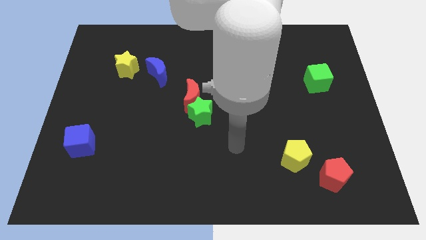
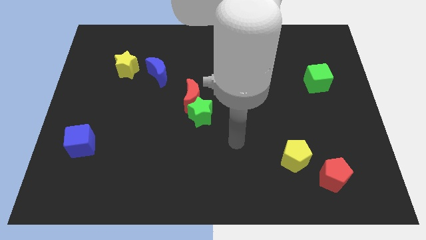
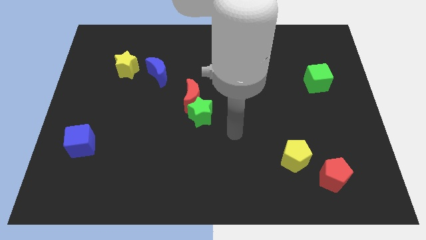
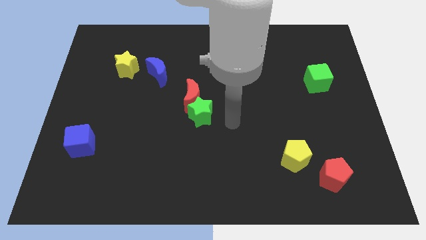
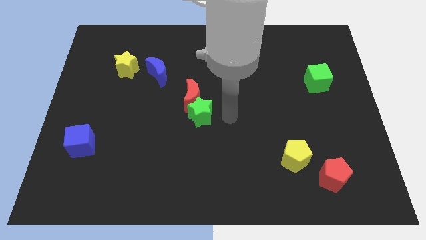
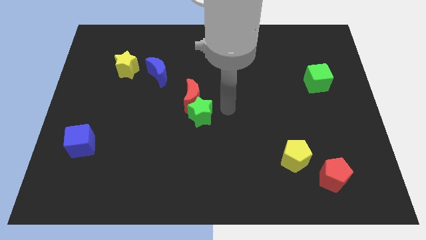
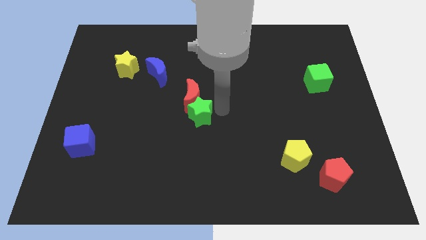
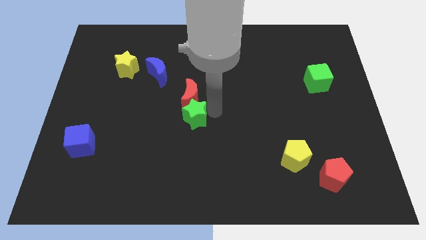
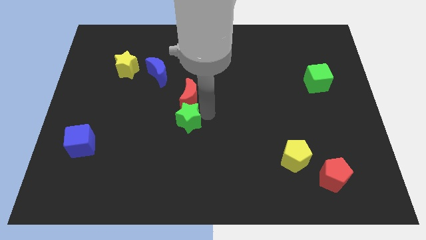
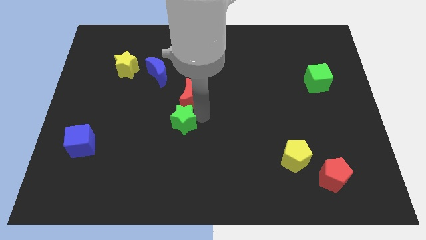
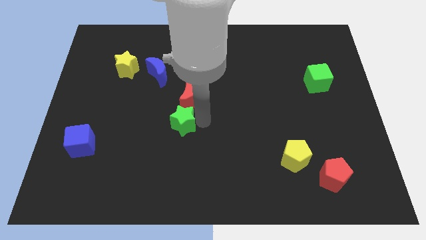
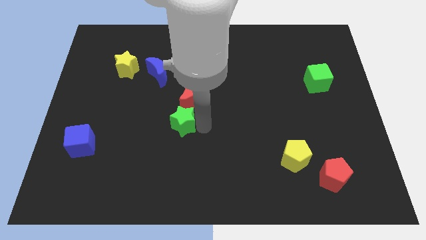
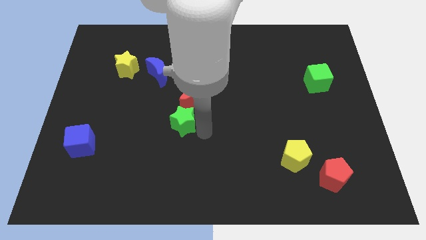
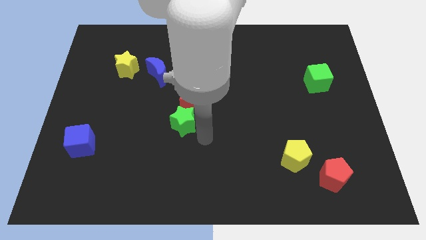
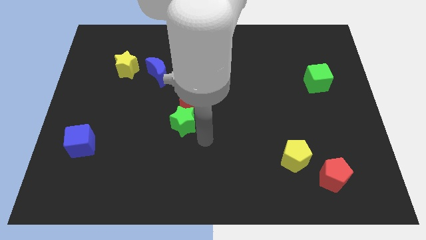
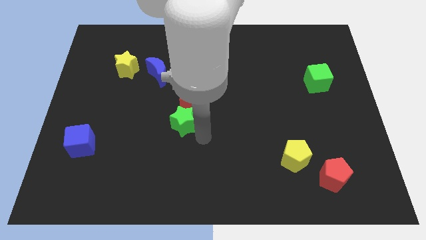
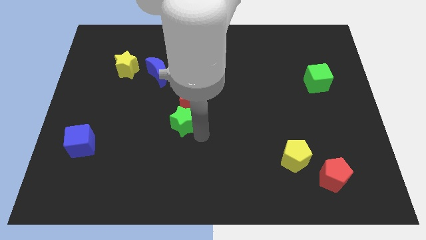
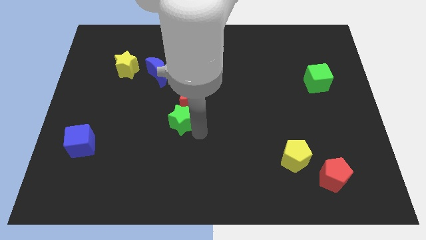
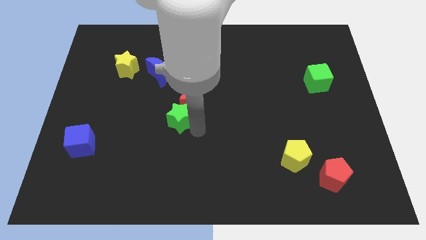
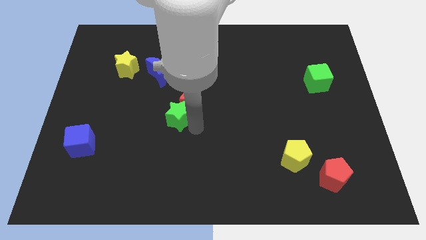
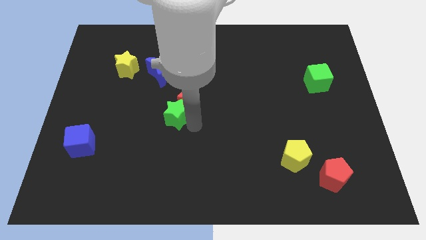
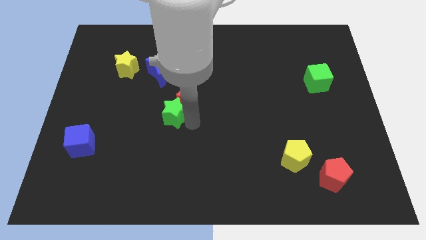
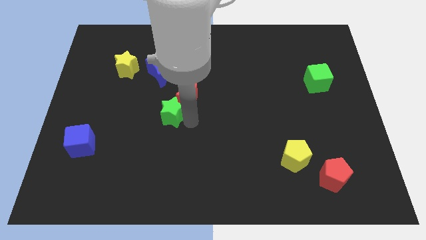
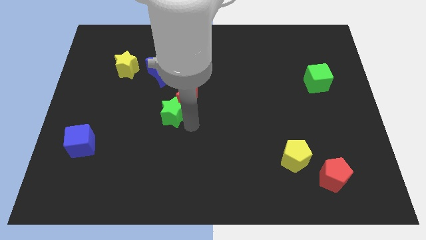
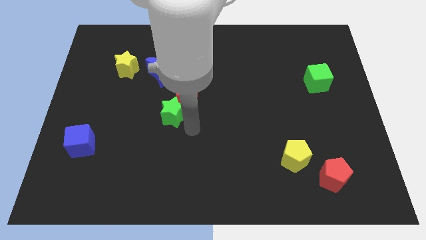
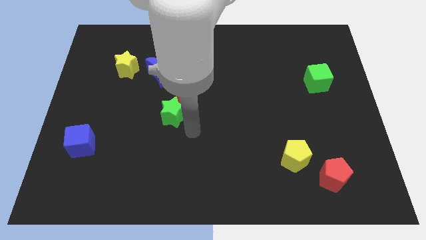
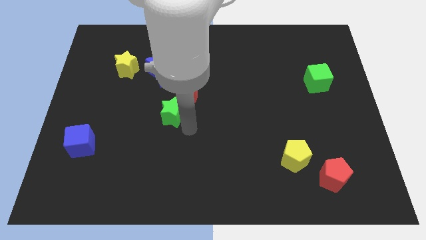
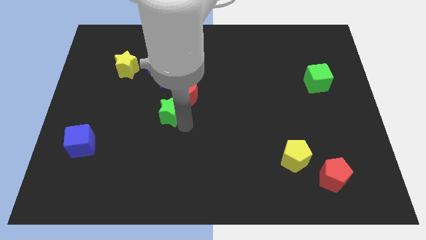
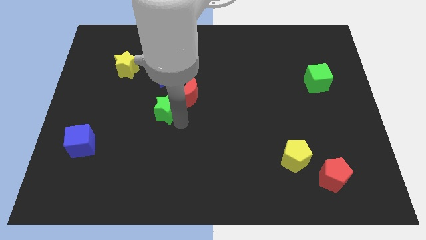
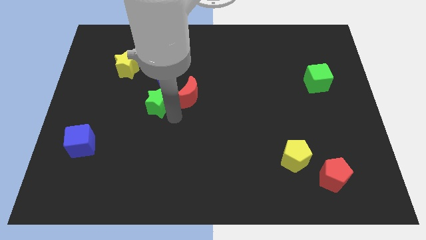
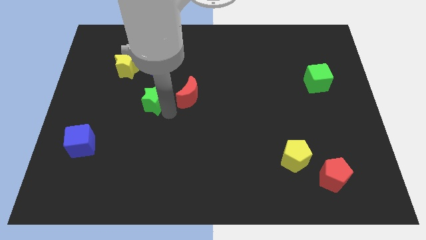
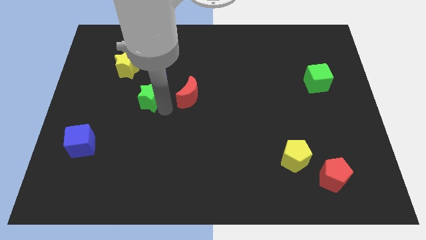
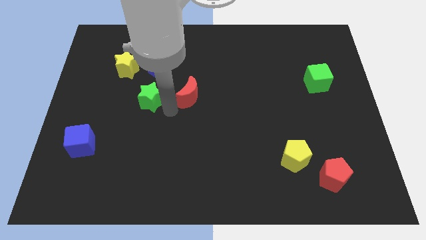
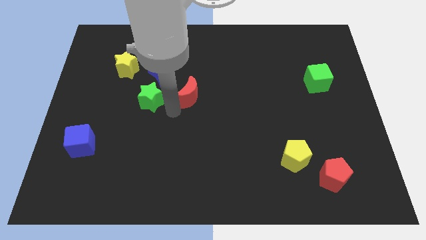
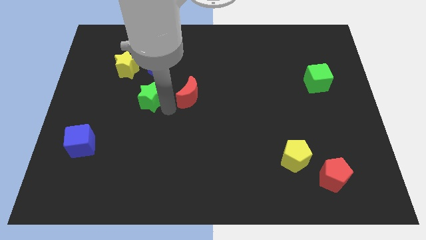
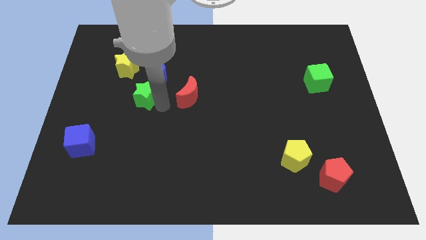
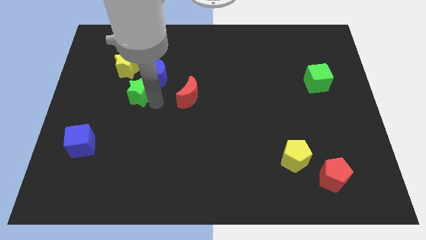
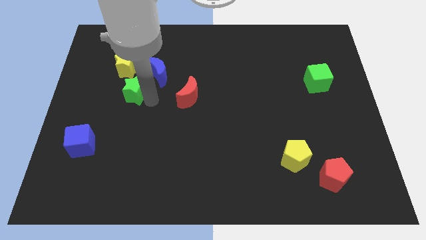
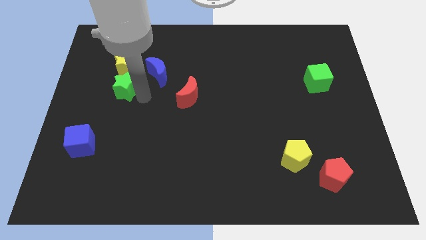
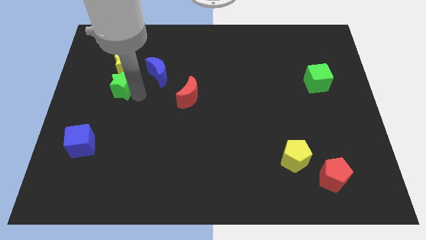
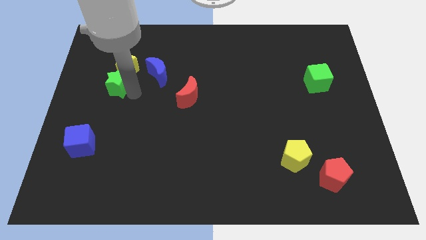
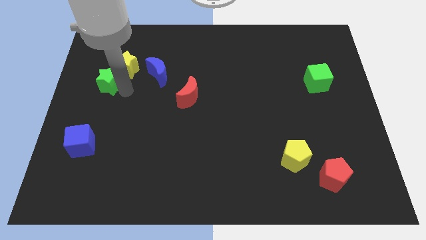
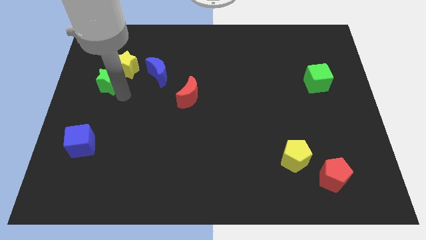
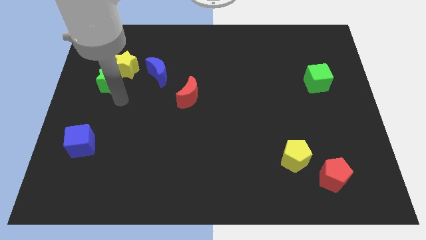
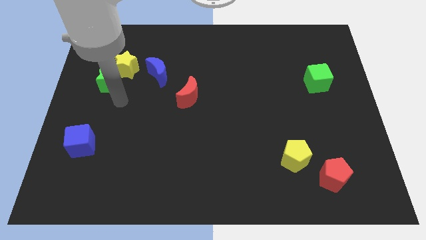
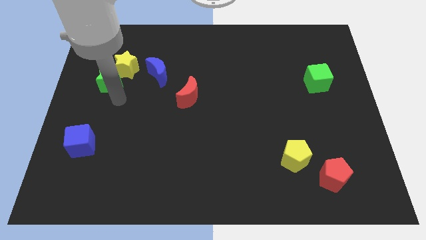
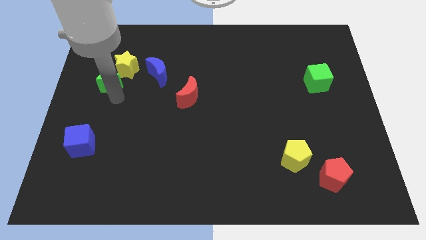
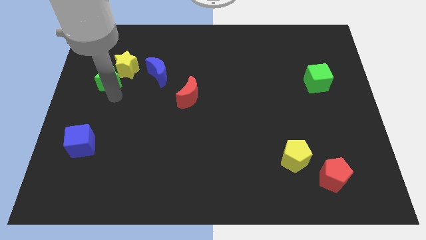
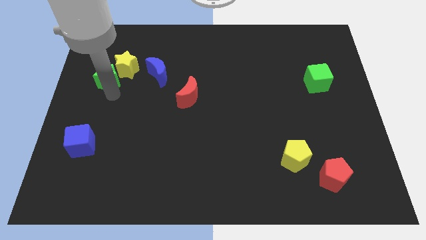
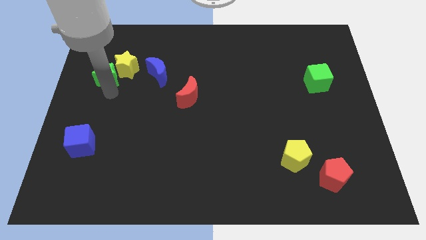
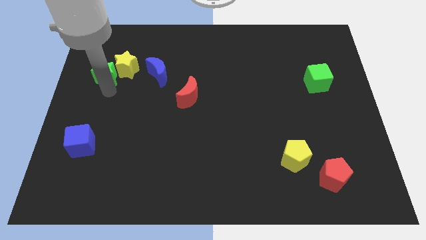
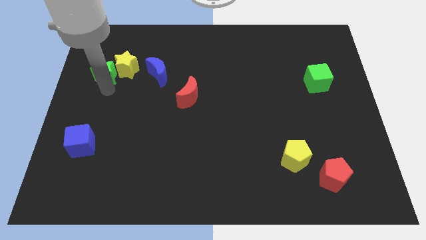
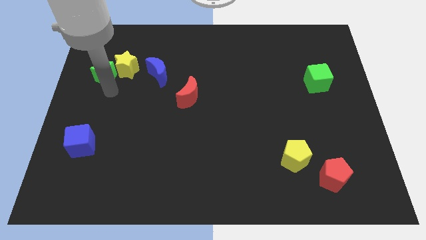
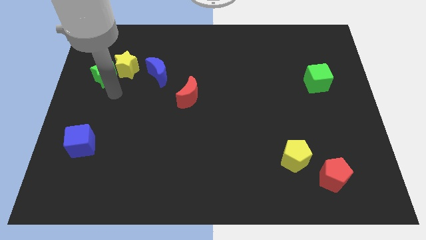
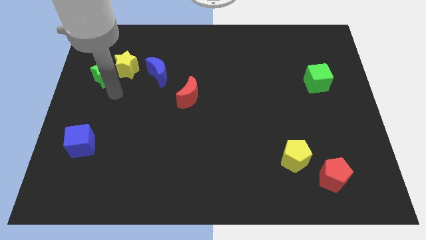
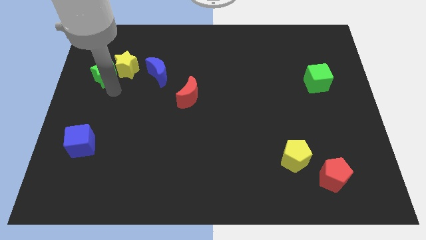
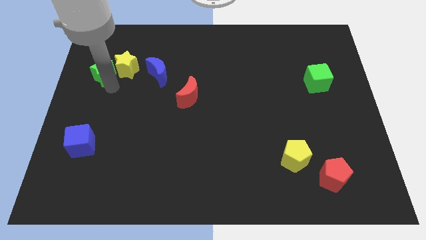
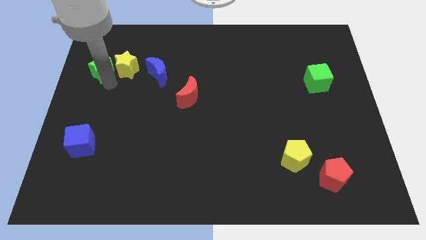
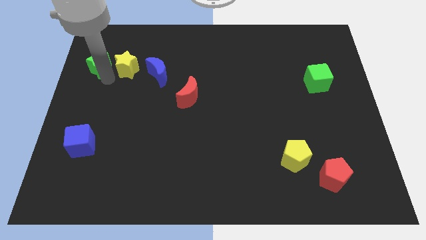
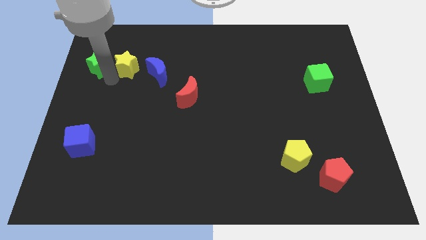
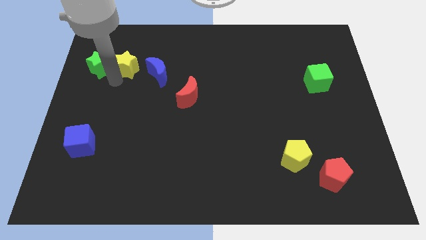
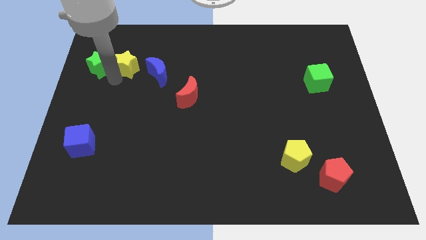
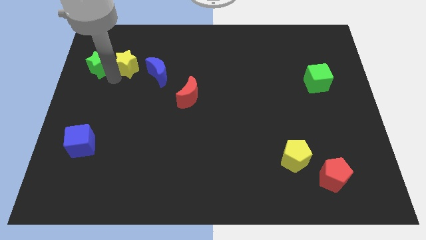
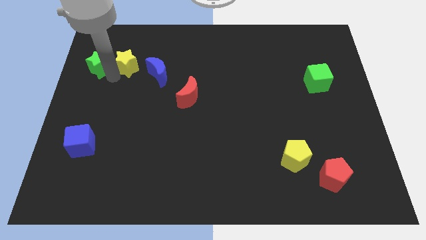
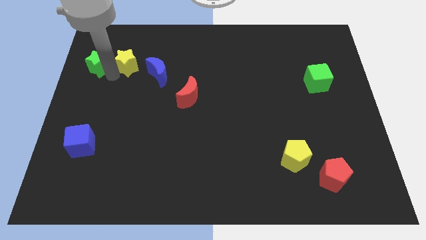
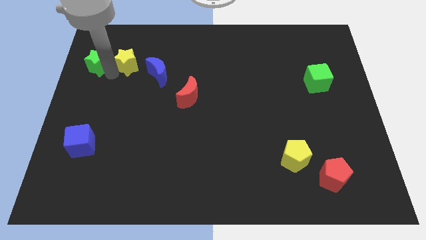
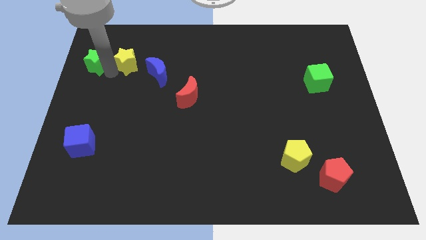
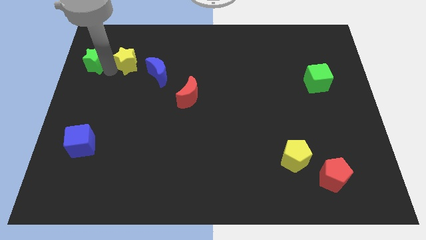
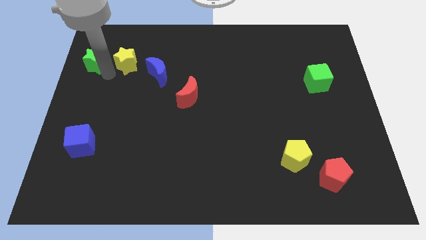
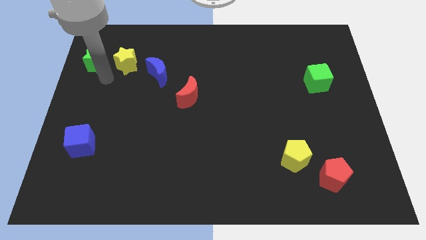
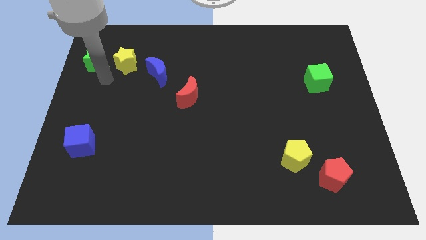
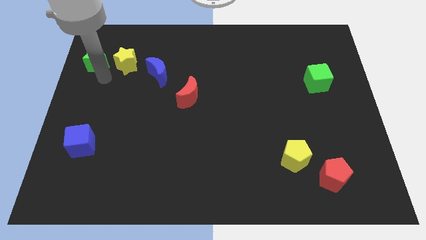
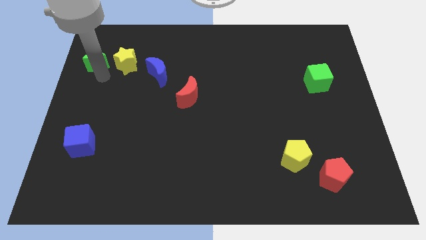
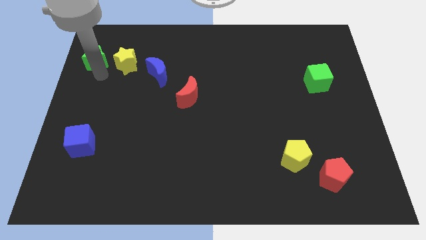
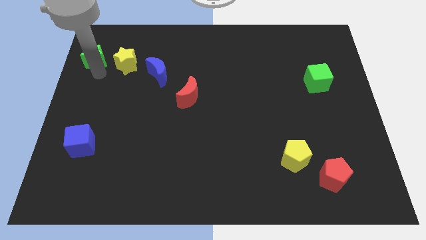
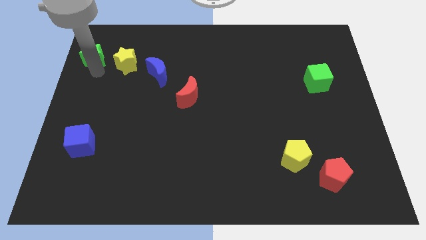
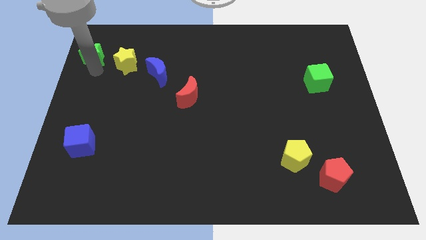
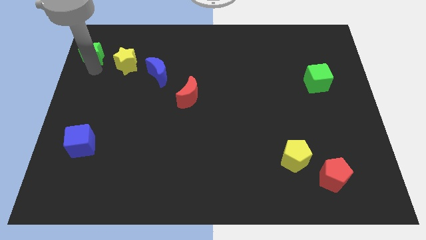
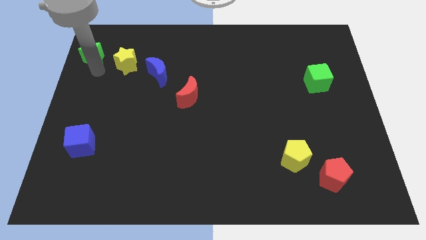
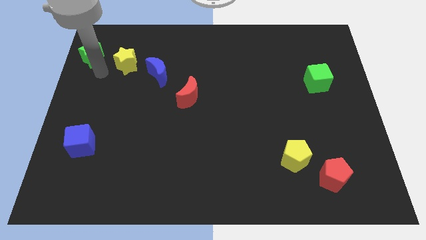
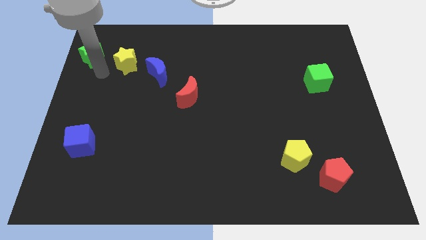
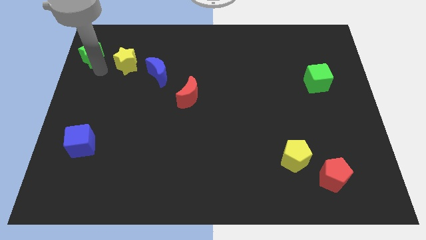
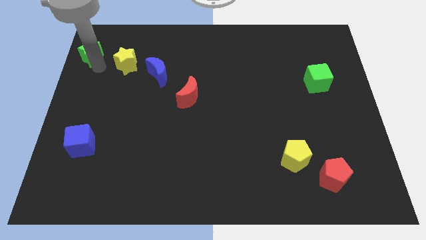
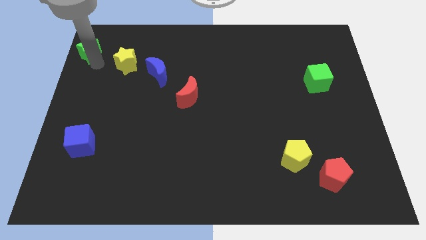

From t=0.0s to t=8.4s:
push the green star to the top left
